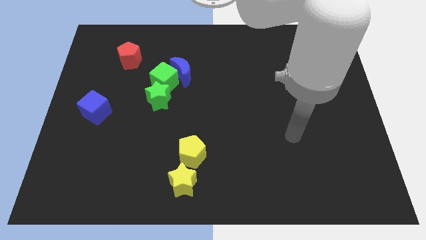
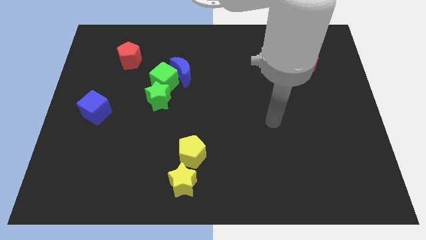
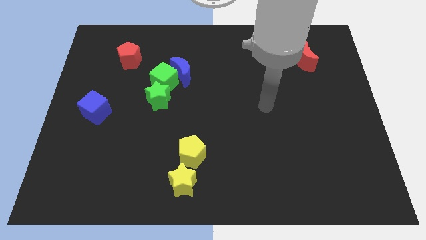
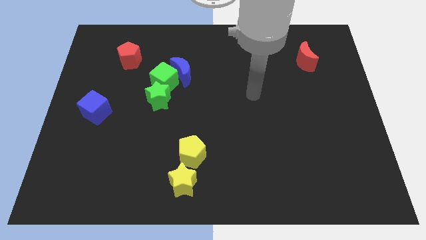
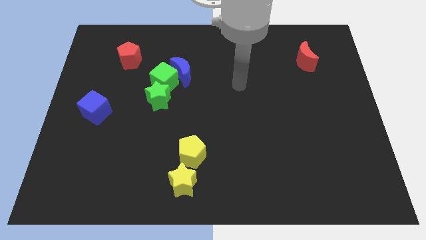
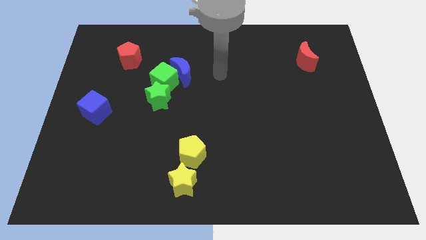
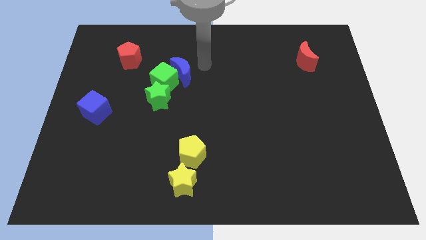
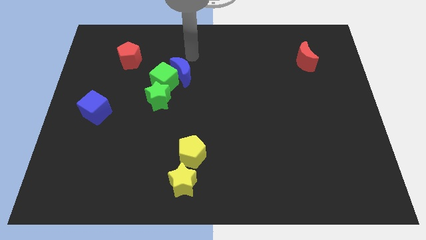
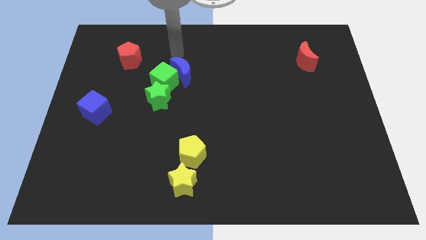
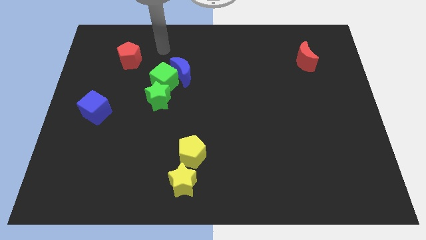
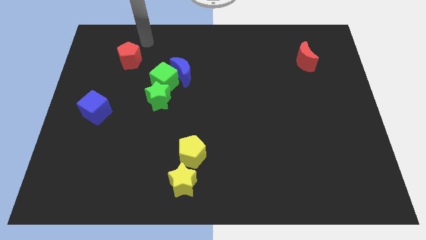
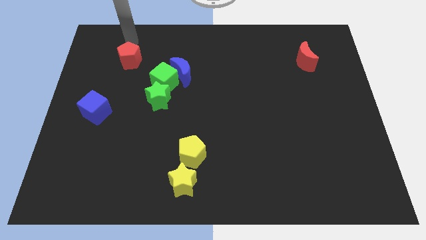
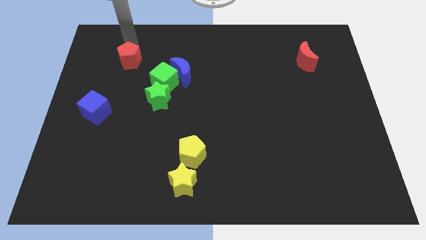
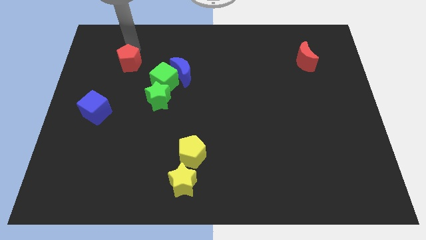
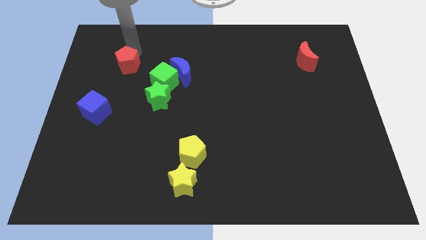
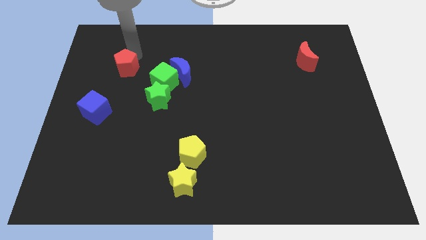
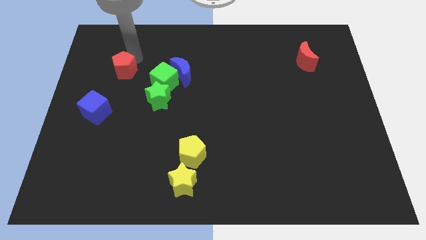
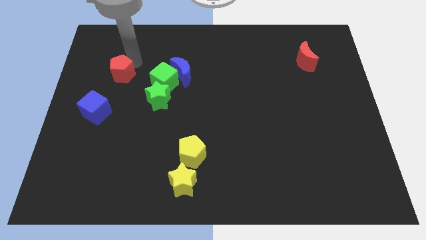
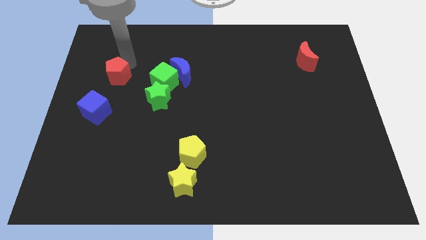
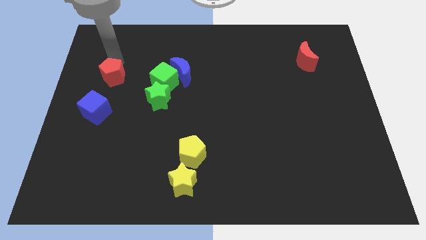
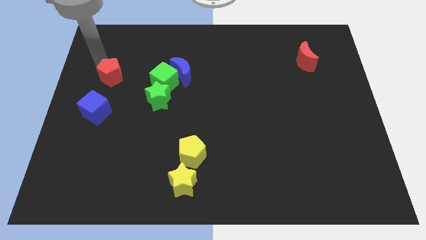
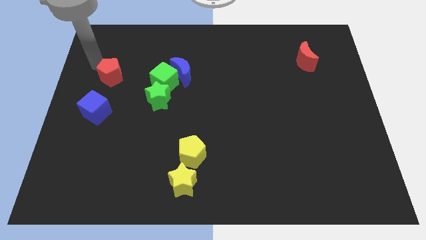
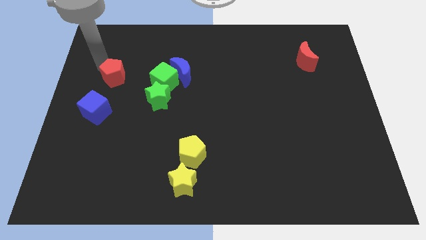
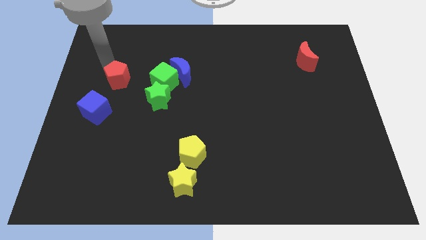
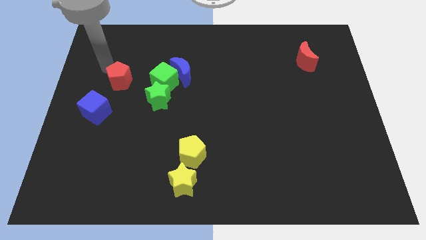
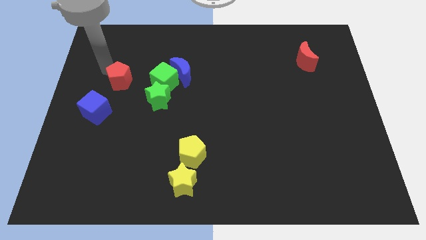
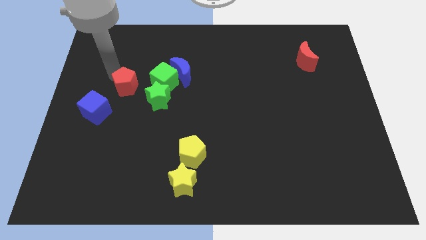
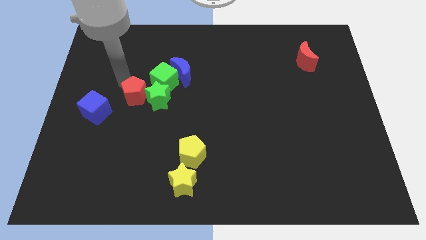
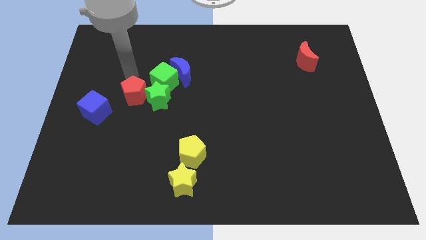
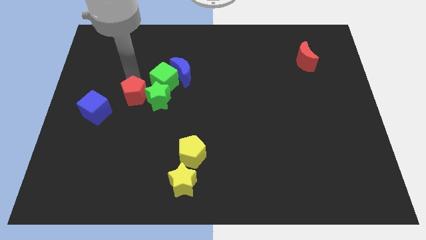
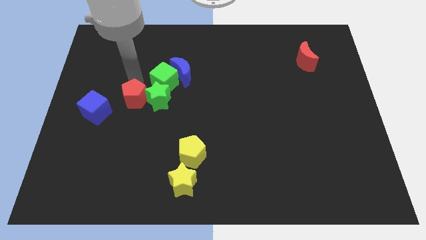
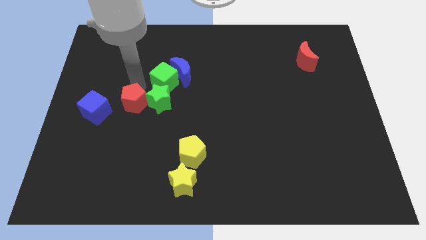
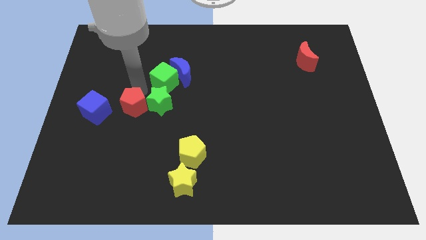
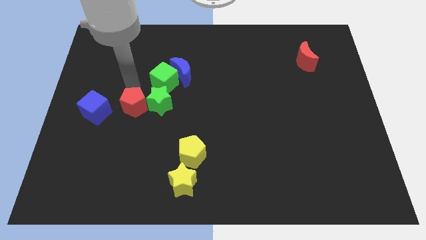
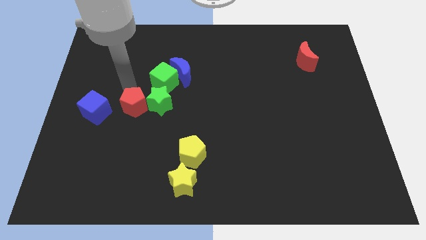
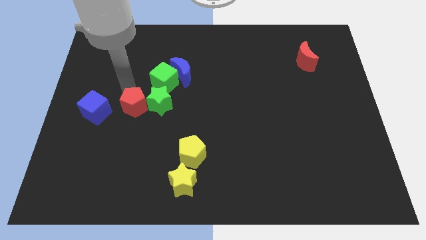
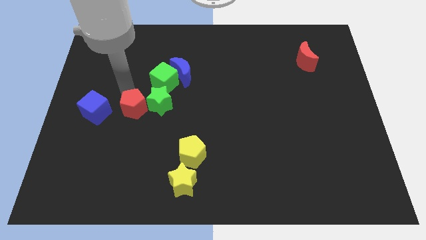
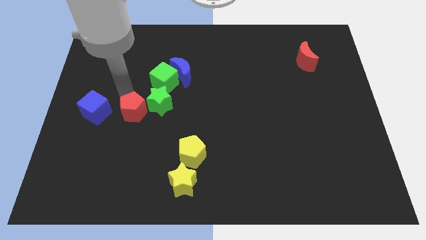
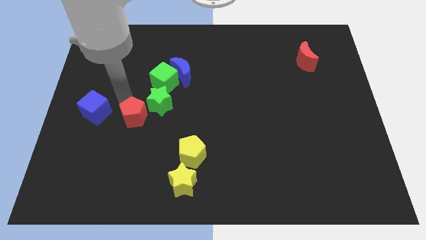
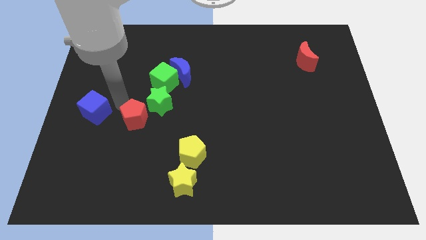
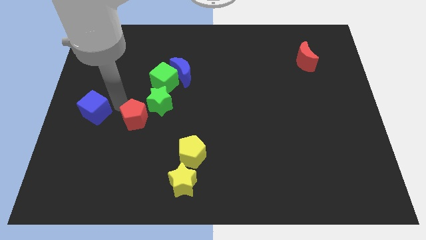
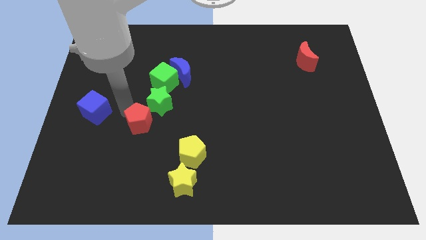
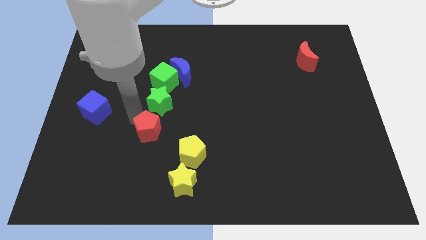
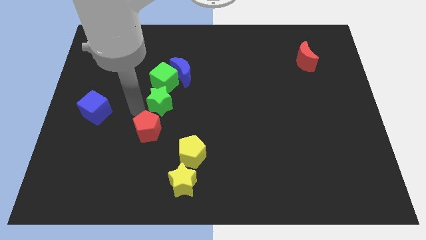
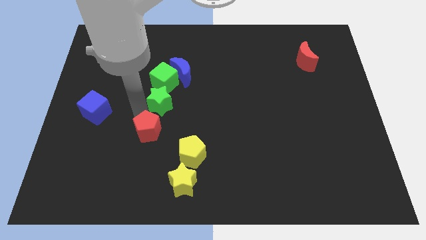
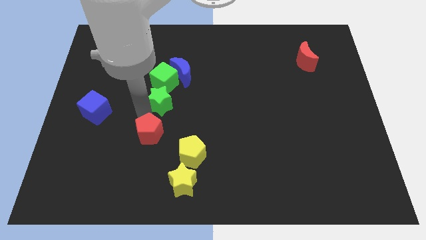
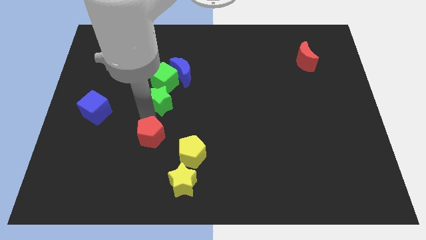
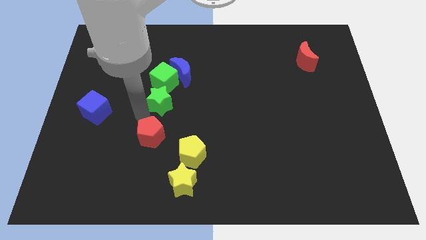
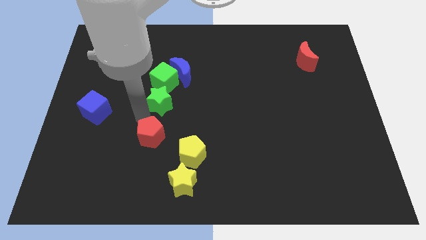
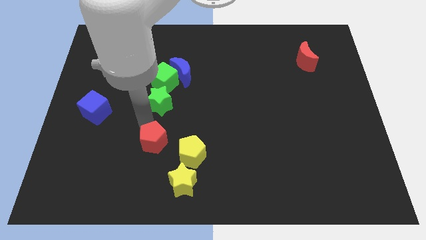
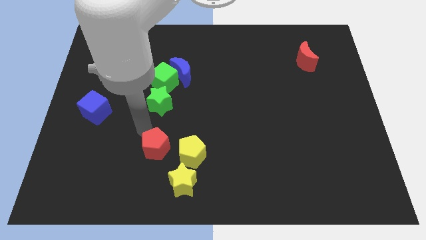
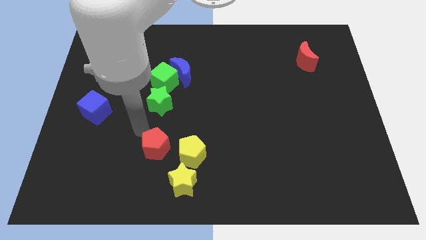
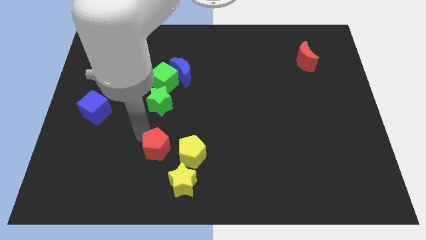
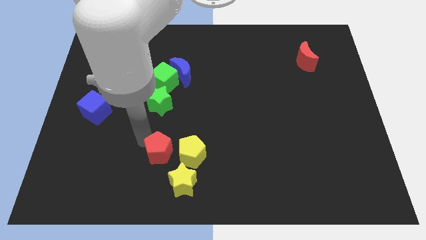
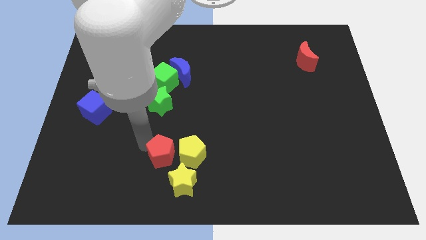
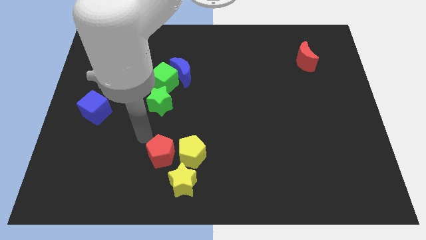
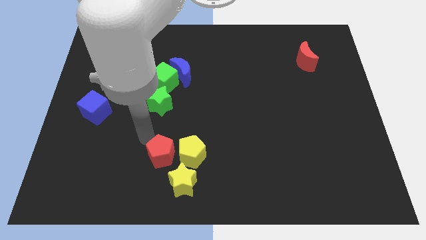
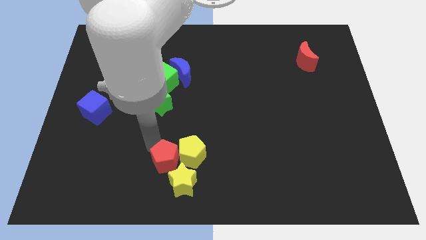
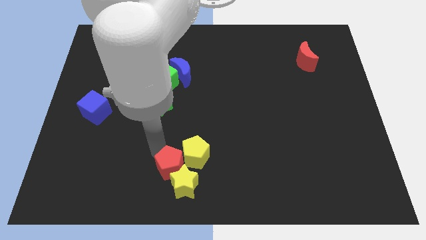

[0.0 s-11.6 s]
slide the red pentagon next to the yellow star

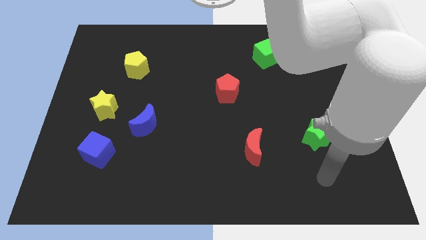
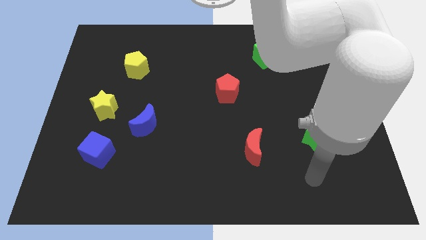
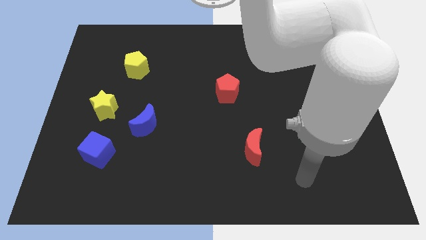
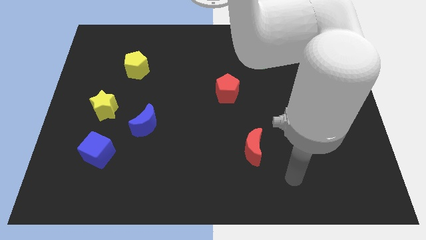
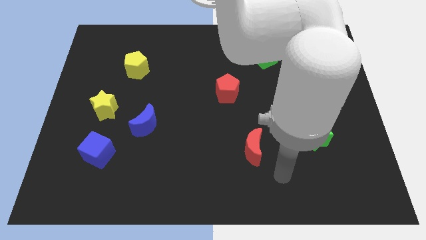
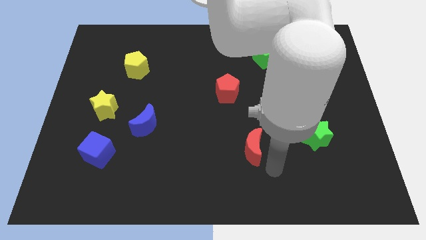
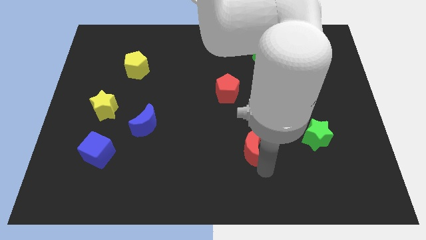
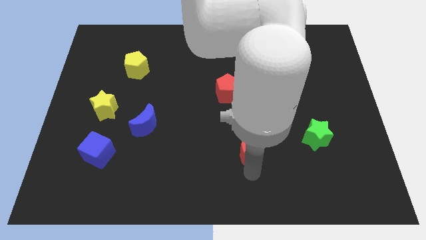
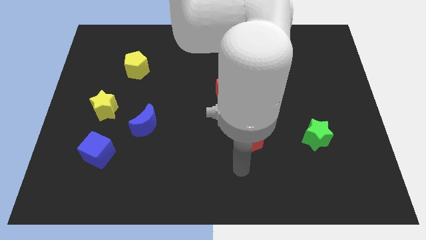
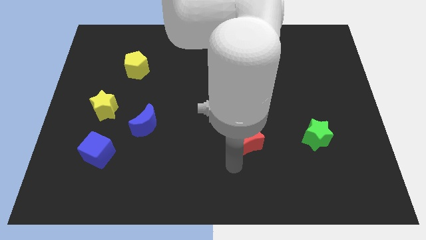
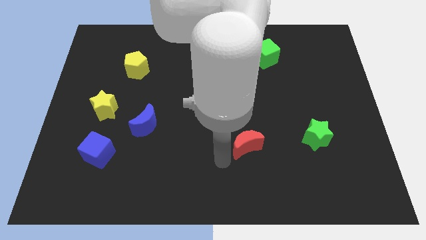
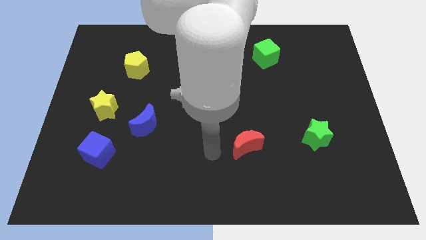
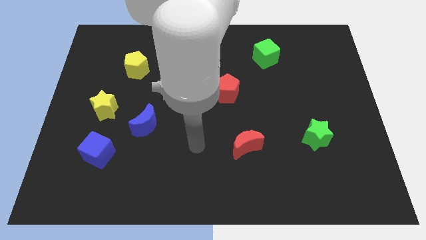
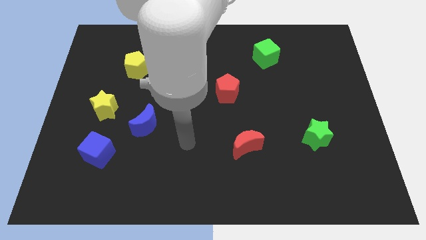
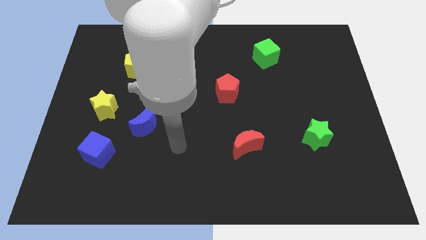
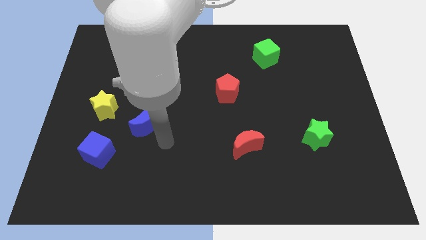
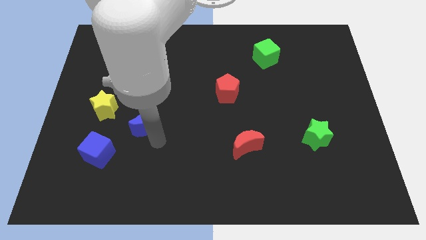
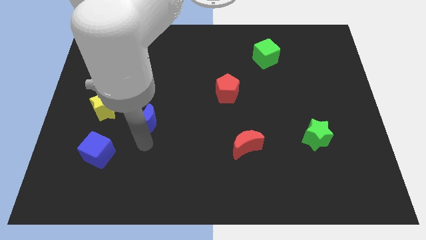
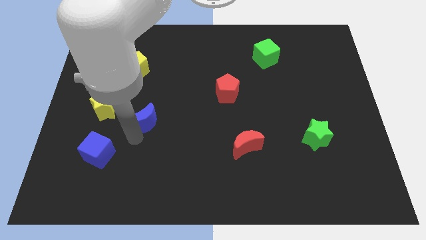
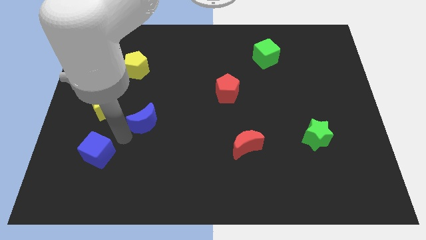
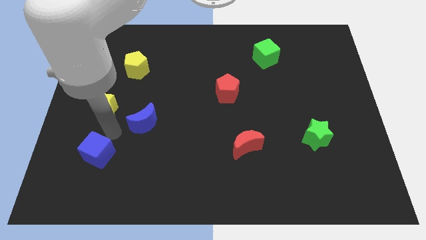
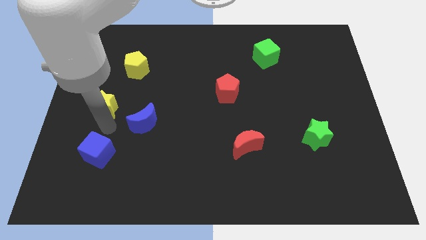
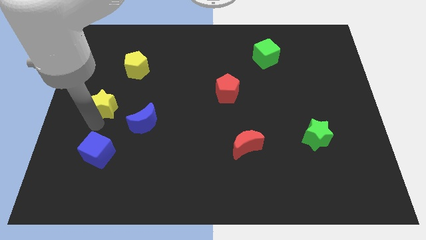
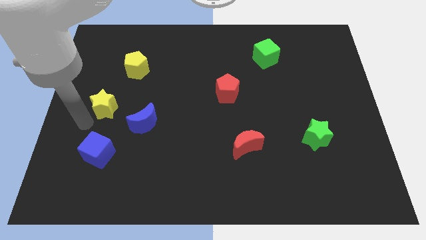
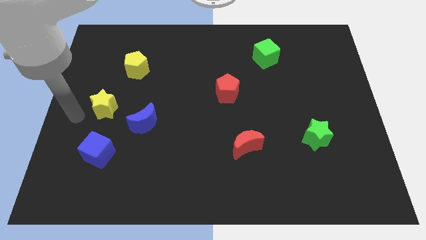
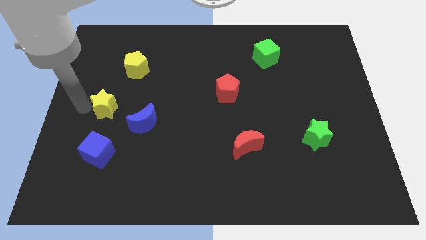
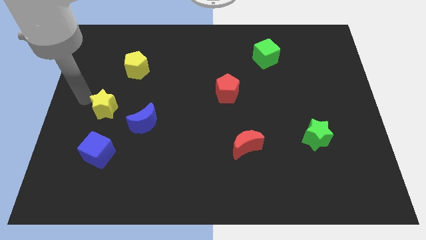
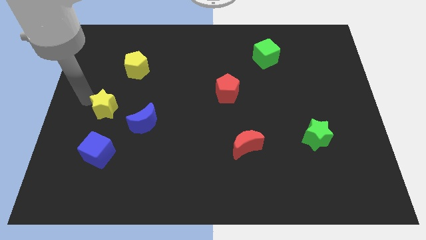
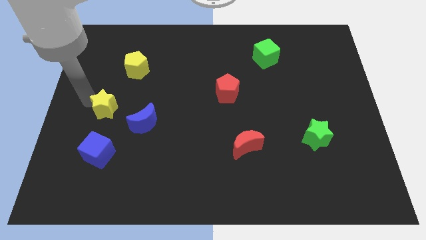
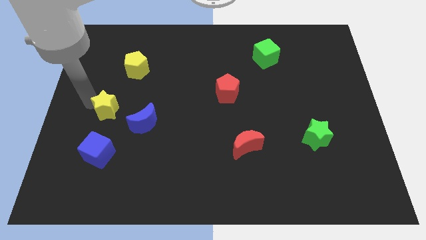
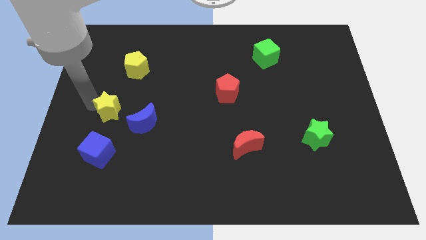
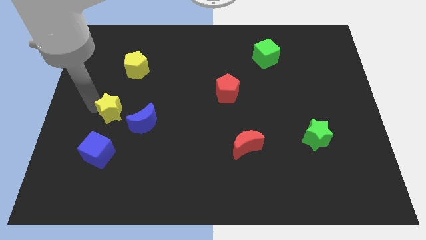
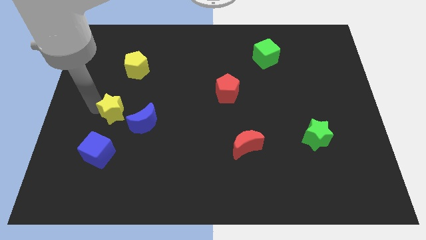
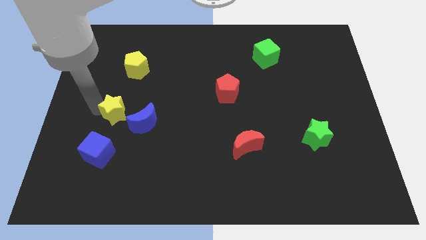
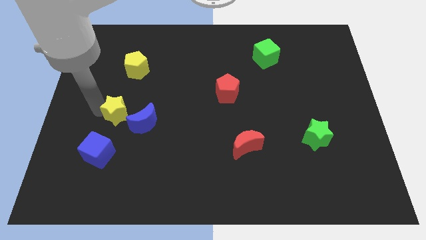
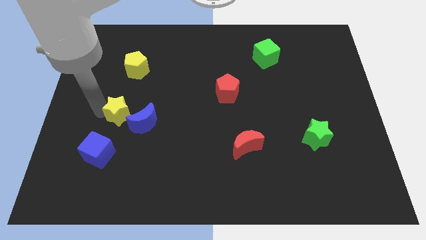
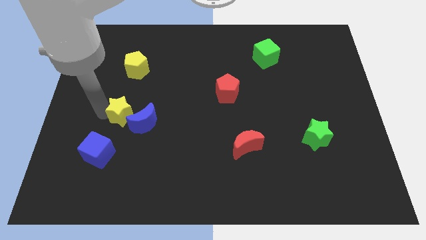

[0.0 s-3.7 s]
put the yellow star to the blue moon
